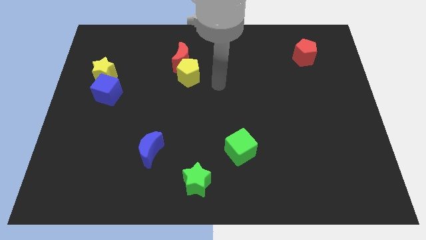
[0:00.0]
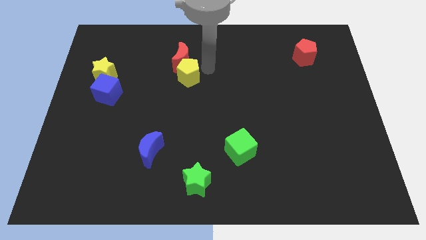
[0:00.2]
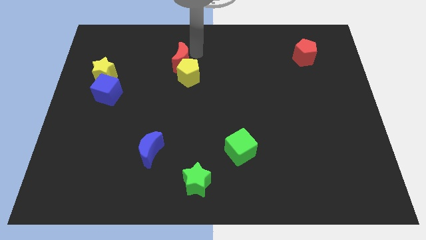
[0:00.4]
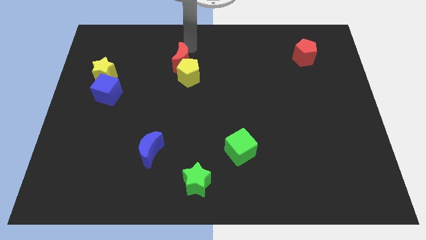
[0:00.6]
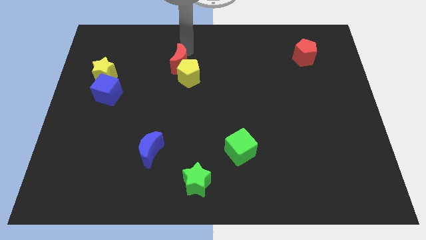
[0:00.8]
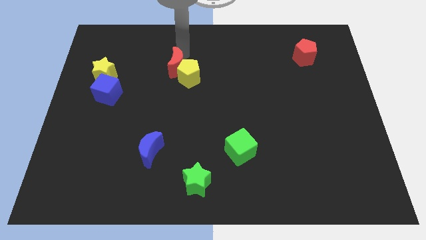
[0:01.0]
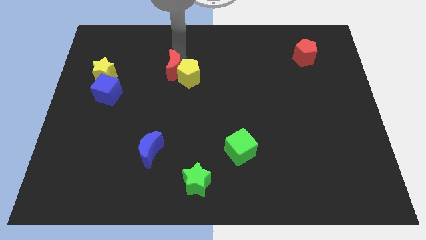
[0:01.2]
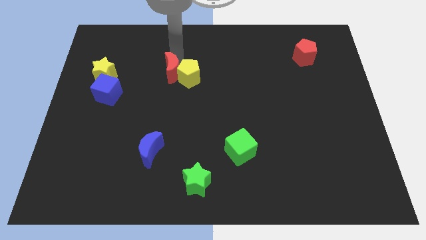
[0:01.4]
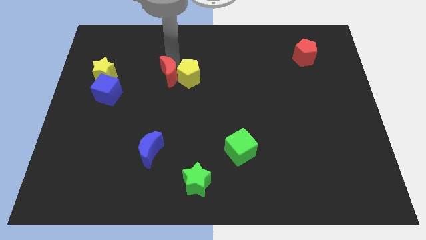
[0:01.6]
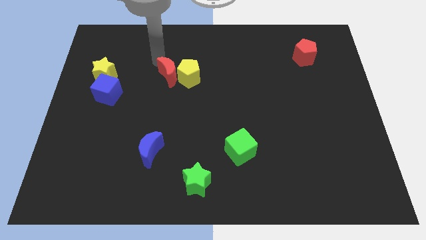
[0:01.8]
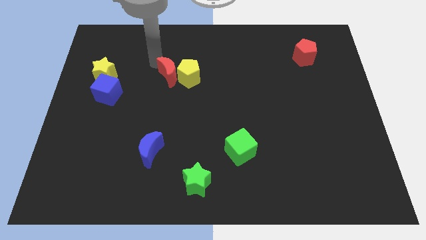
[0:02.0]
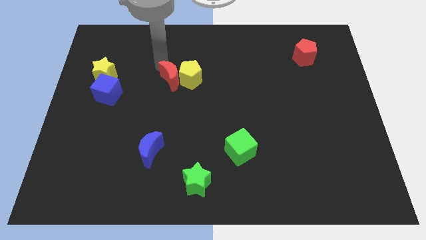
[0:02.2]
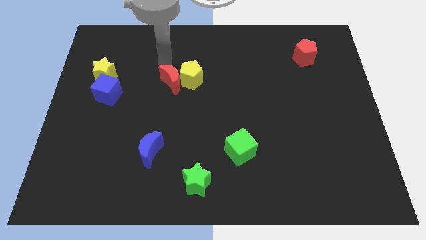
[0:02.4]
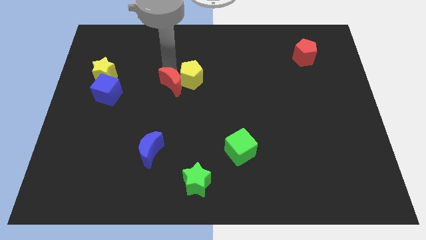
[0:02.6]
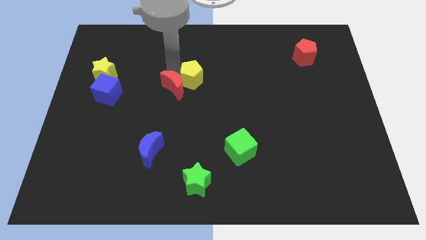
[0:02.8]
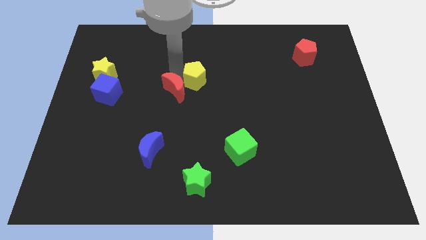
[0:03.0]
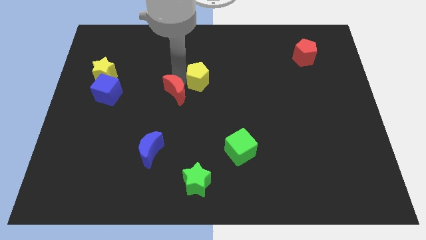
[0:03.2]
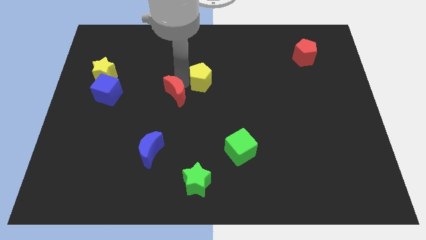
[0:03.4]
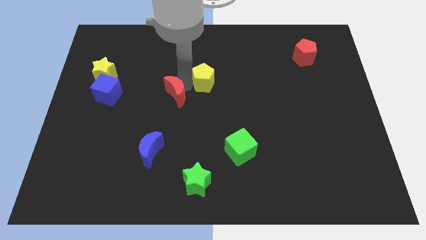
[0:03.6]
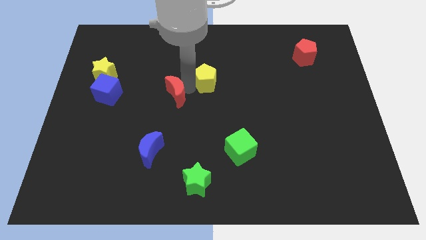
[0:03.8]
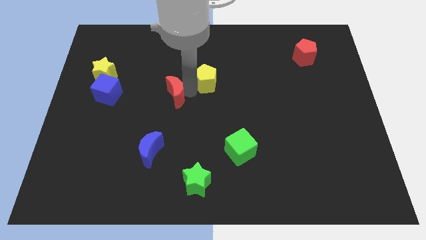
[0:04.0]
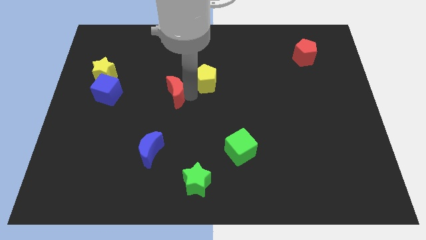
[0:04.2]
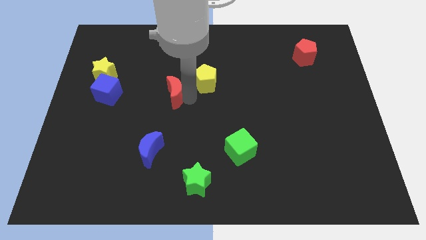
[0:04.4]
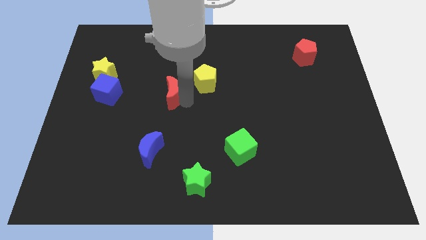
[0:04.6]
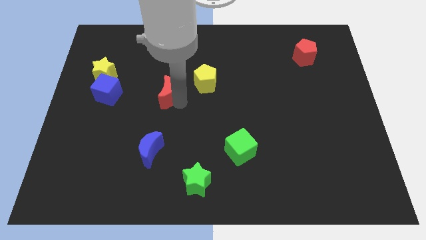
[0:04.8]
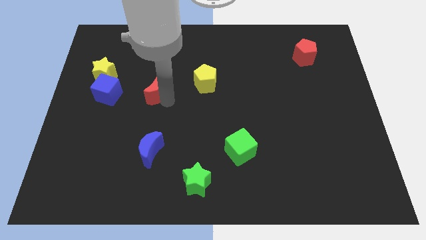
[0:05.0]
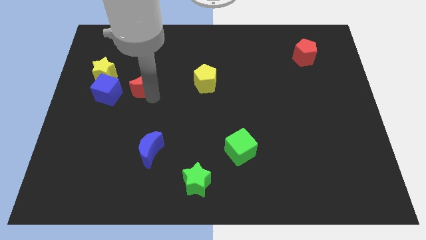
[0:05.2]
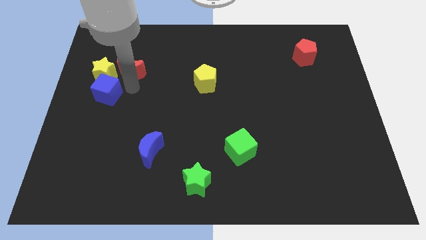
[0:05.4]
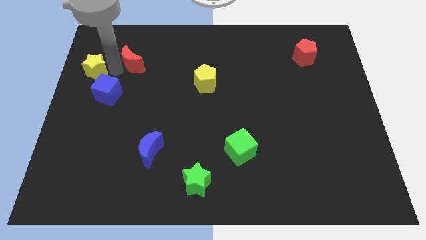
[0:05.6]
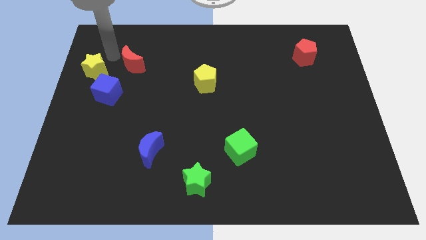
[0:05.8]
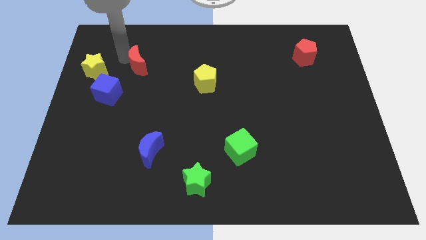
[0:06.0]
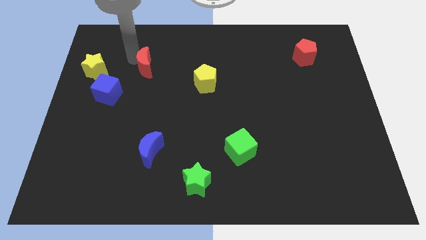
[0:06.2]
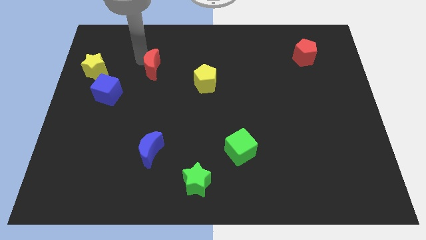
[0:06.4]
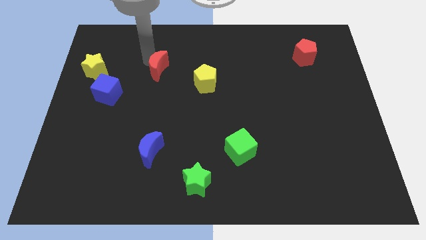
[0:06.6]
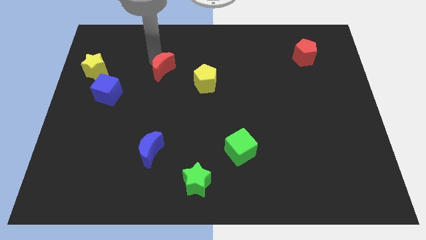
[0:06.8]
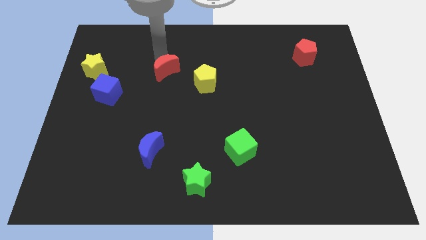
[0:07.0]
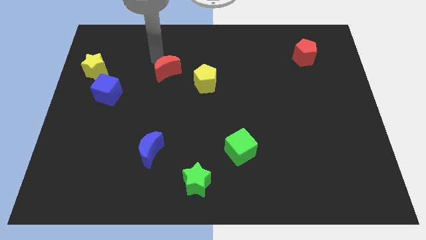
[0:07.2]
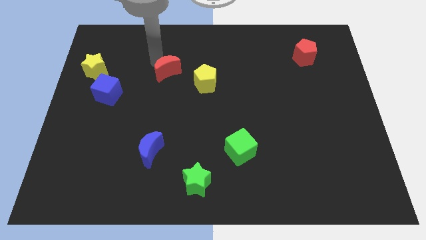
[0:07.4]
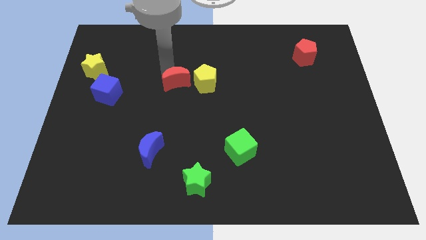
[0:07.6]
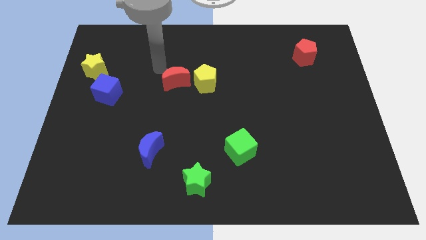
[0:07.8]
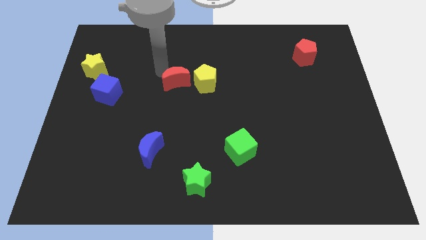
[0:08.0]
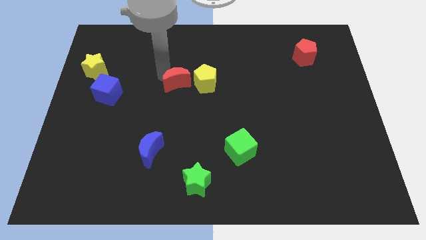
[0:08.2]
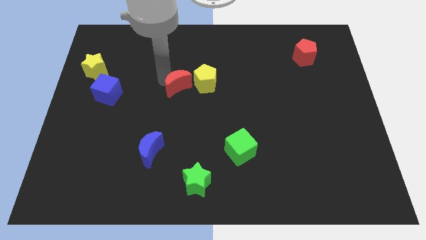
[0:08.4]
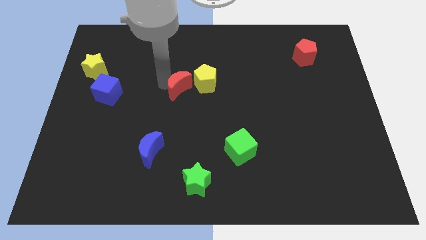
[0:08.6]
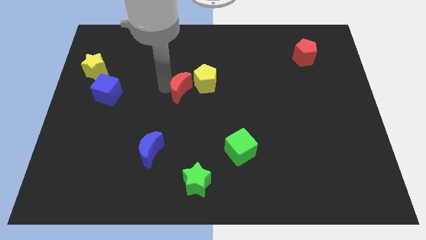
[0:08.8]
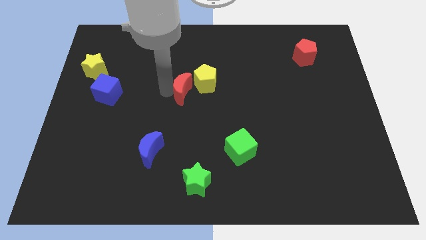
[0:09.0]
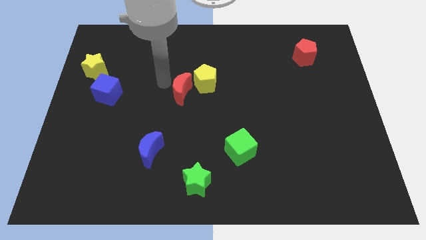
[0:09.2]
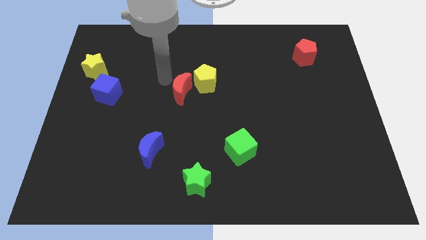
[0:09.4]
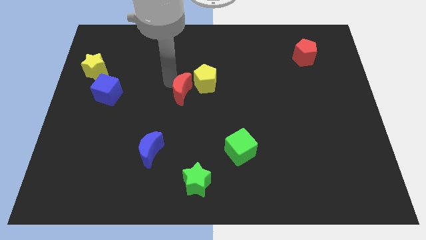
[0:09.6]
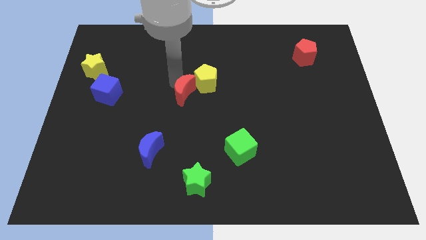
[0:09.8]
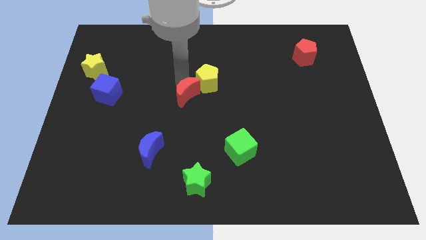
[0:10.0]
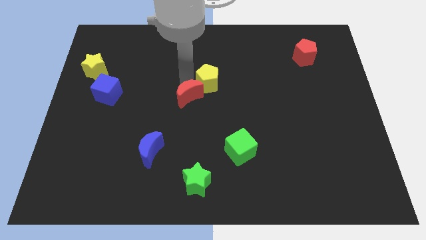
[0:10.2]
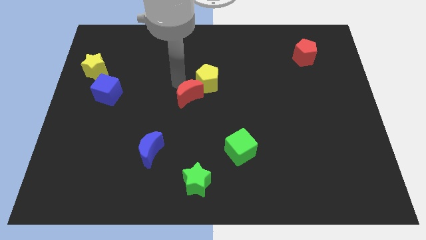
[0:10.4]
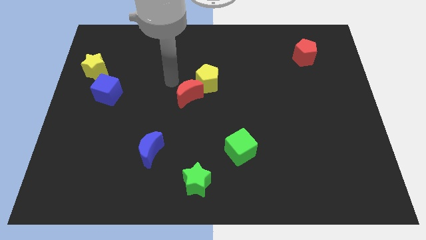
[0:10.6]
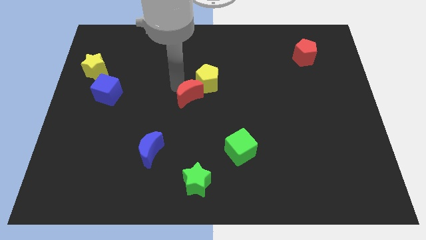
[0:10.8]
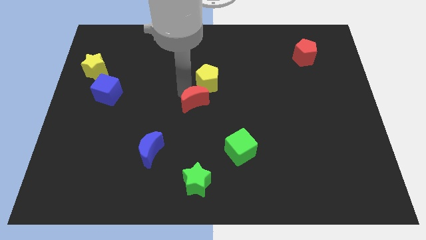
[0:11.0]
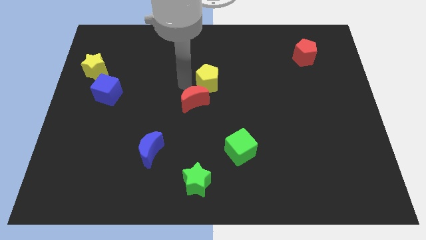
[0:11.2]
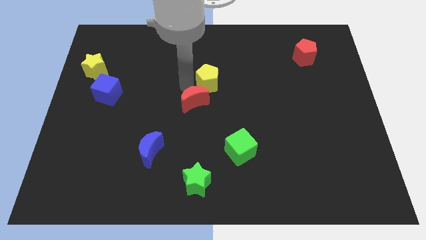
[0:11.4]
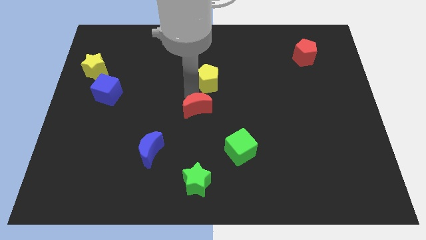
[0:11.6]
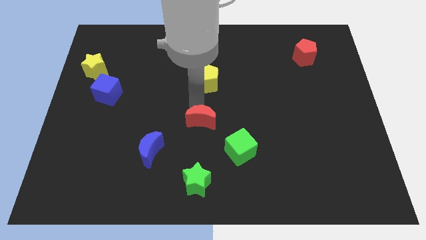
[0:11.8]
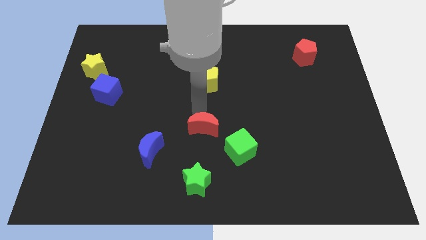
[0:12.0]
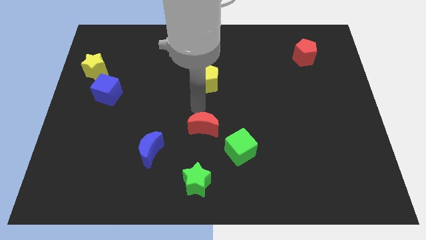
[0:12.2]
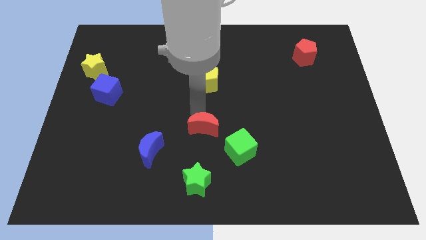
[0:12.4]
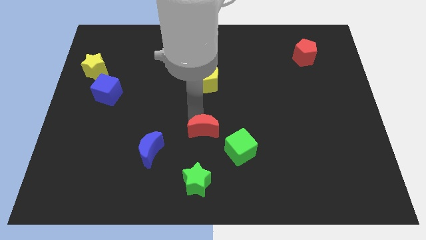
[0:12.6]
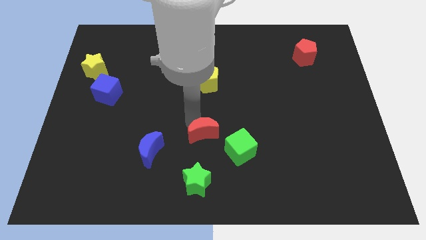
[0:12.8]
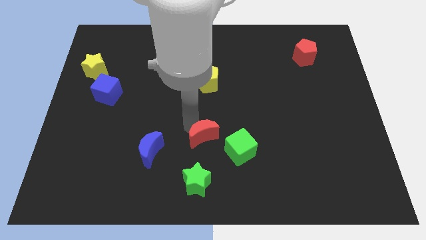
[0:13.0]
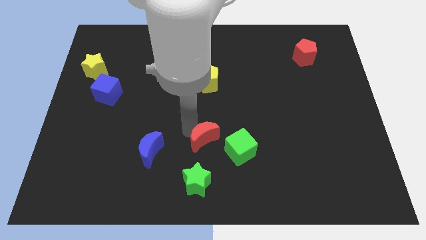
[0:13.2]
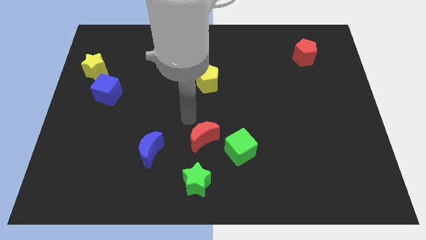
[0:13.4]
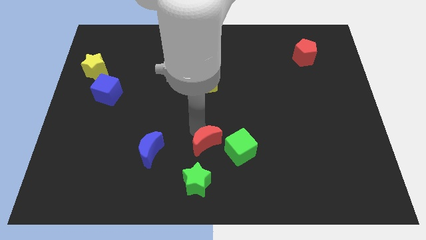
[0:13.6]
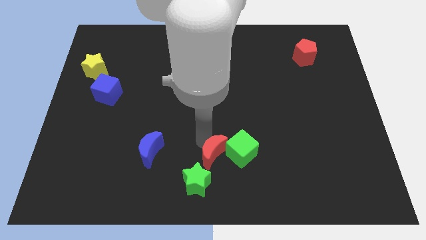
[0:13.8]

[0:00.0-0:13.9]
slide the red moon to the bottom side
